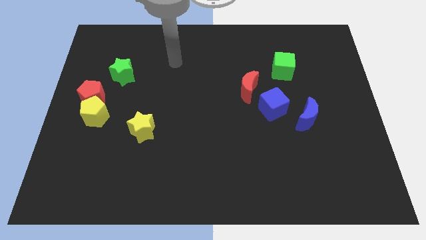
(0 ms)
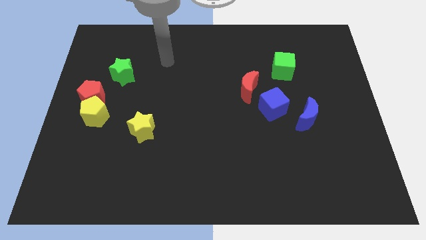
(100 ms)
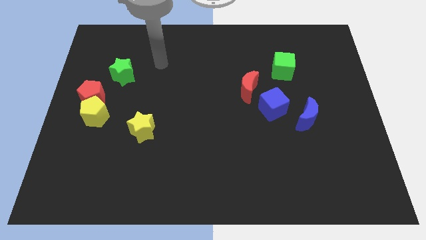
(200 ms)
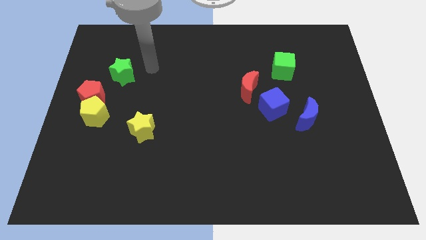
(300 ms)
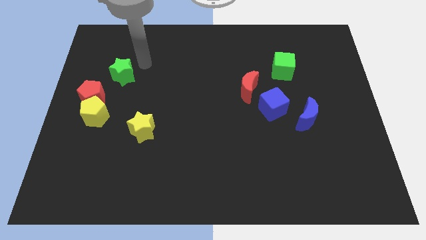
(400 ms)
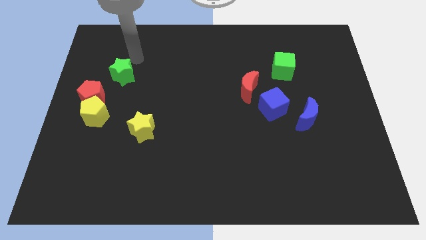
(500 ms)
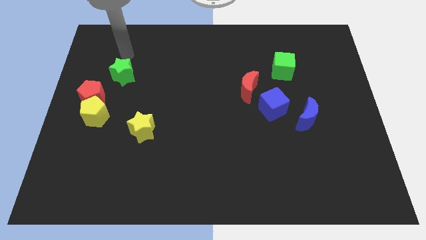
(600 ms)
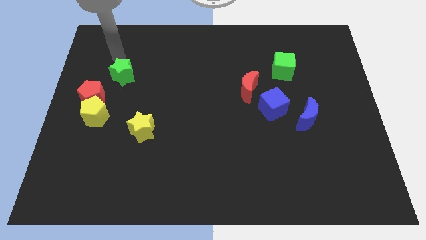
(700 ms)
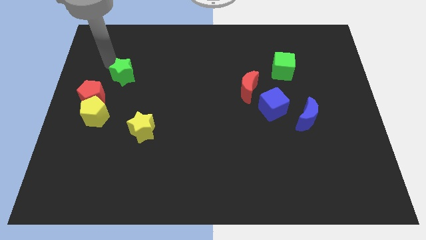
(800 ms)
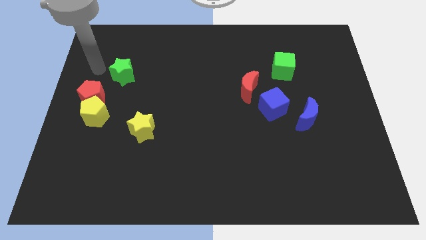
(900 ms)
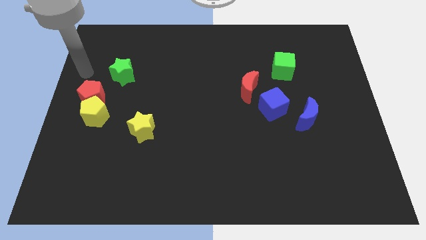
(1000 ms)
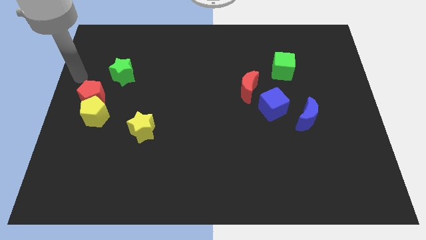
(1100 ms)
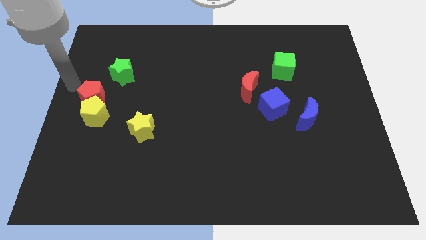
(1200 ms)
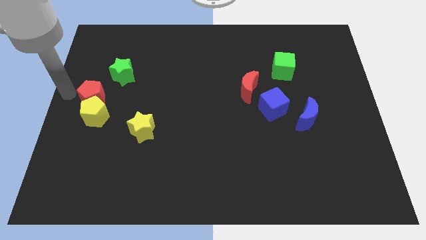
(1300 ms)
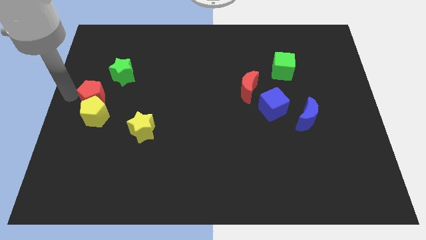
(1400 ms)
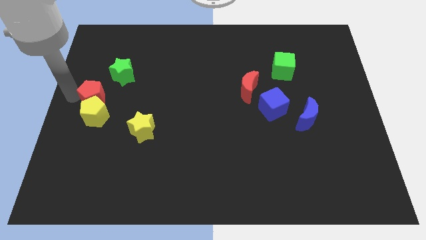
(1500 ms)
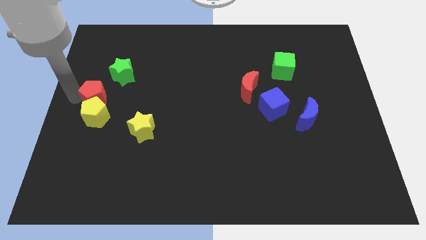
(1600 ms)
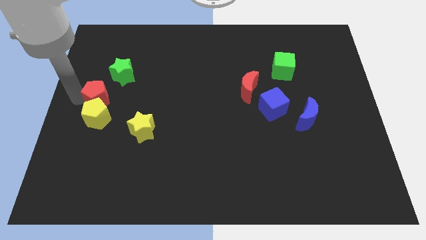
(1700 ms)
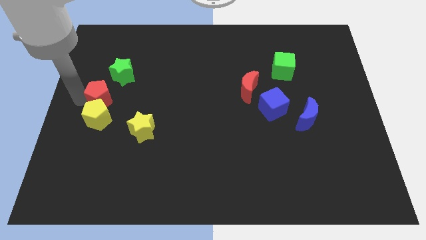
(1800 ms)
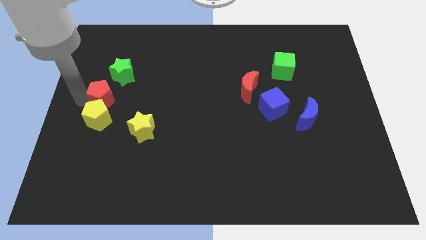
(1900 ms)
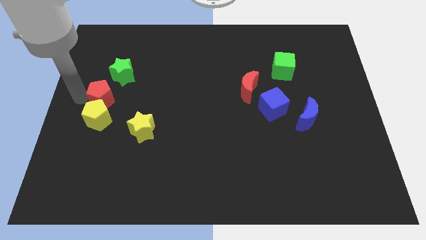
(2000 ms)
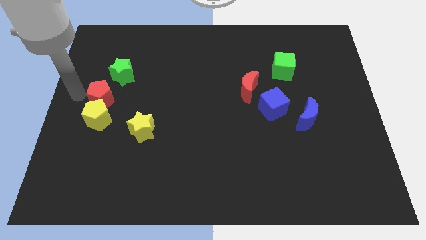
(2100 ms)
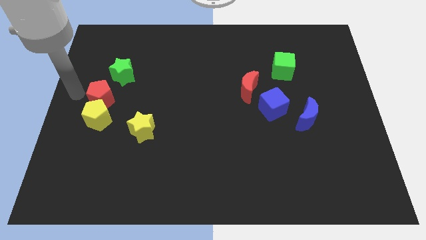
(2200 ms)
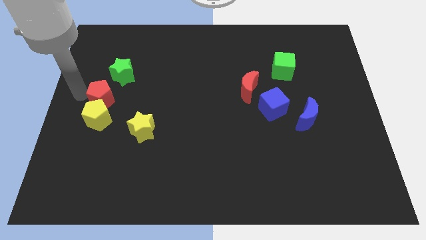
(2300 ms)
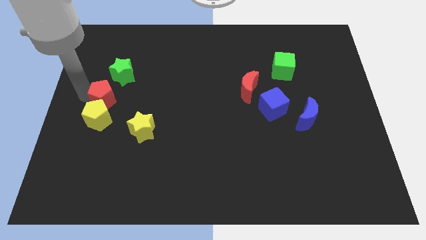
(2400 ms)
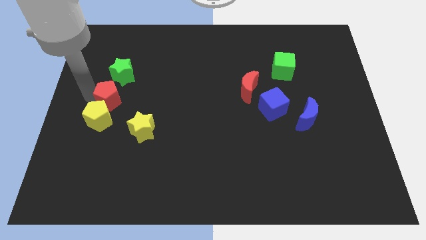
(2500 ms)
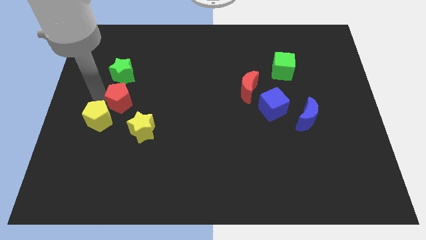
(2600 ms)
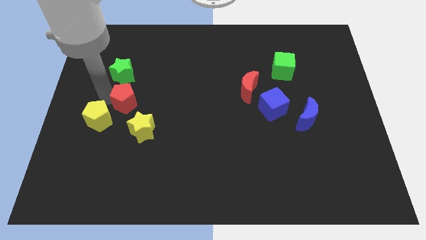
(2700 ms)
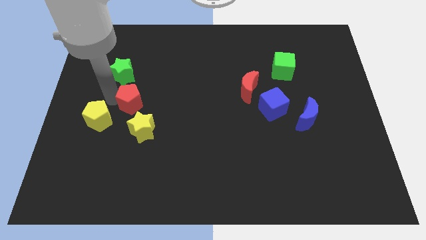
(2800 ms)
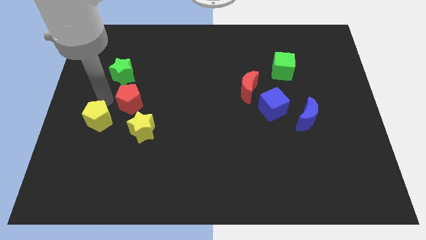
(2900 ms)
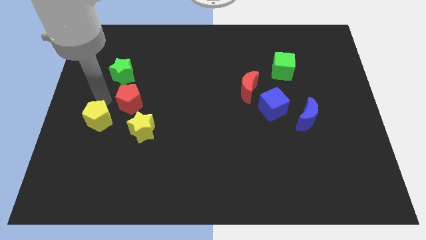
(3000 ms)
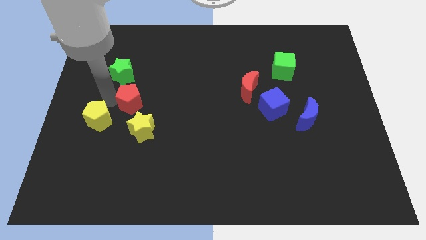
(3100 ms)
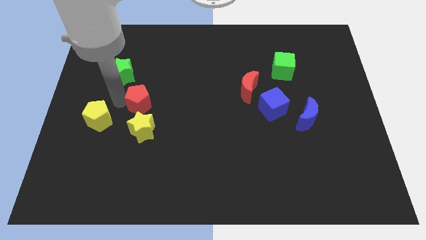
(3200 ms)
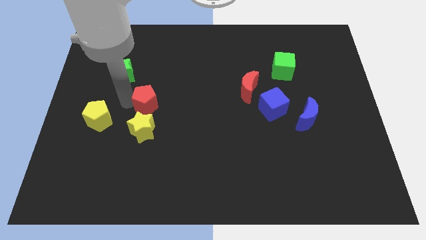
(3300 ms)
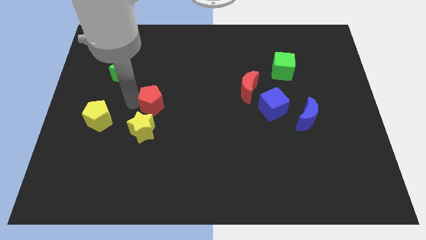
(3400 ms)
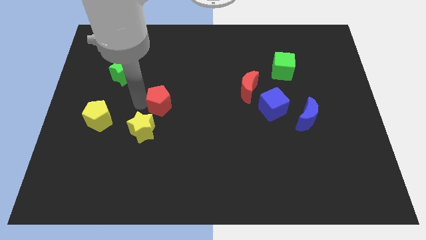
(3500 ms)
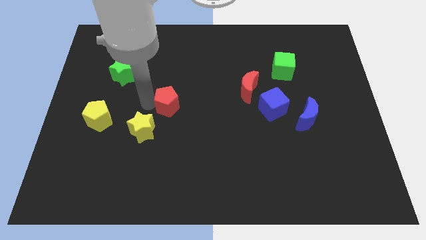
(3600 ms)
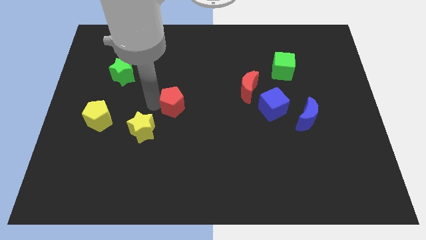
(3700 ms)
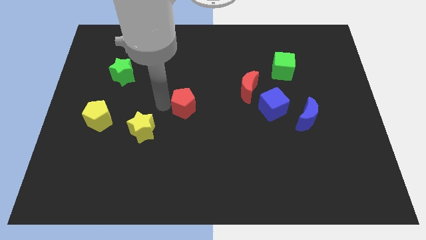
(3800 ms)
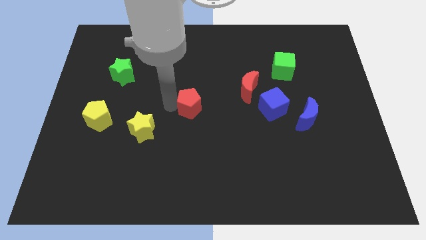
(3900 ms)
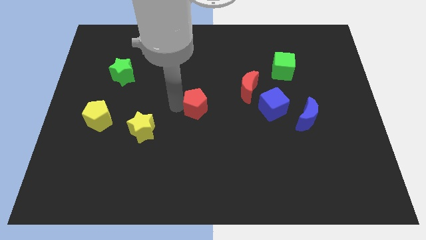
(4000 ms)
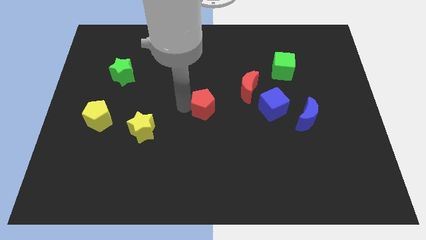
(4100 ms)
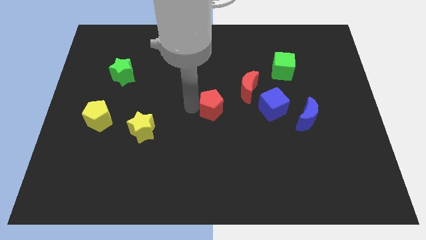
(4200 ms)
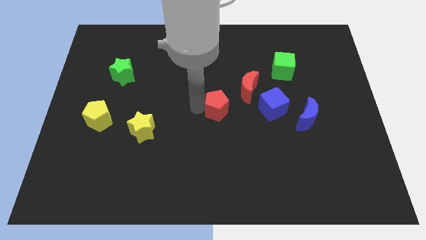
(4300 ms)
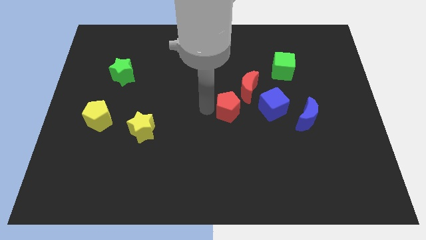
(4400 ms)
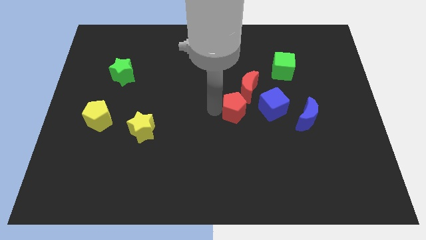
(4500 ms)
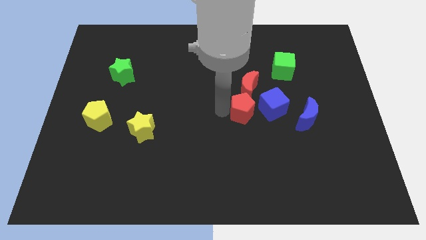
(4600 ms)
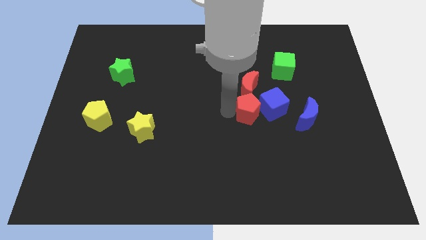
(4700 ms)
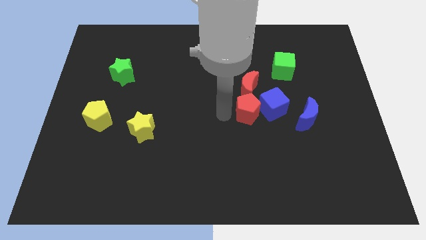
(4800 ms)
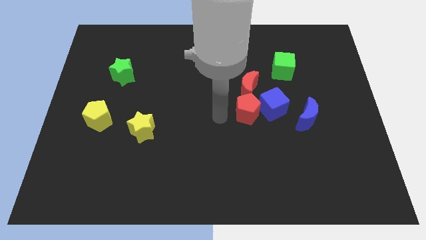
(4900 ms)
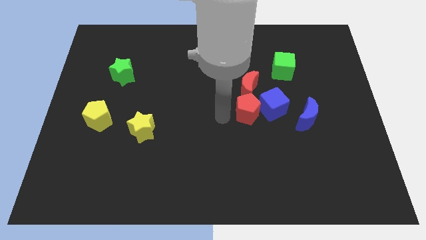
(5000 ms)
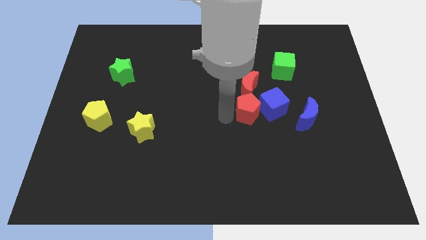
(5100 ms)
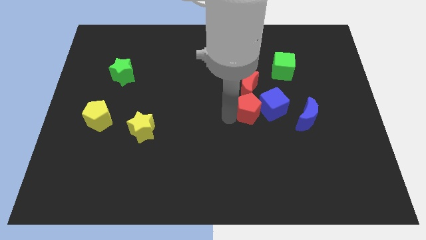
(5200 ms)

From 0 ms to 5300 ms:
slide the red pentagon close to the blue cube

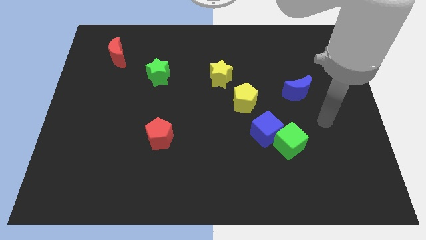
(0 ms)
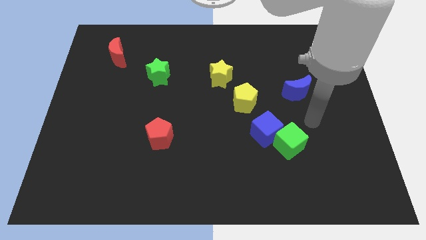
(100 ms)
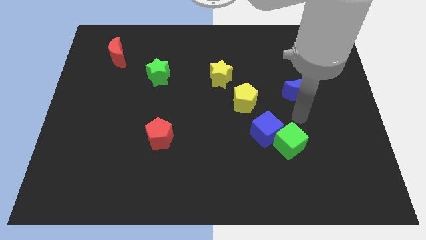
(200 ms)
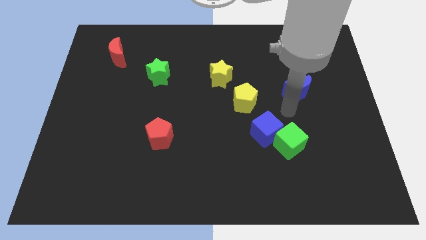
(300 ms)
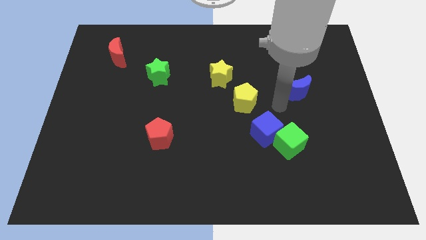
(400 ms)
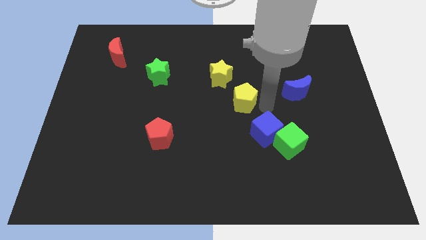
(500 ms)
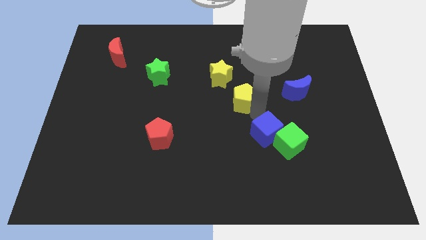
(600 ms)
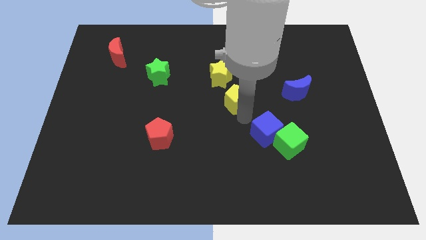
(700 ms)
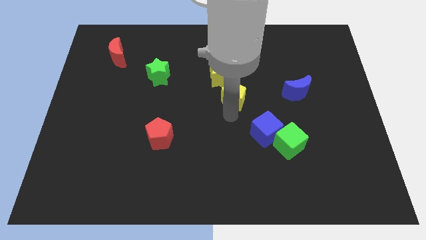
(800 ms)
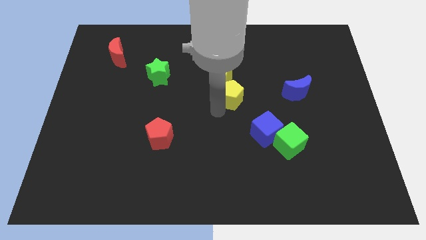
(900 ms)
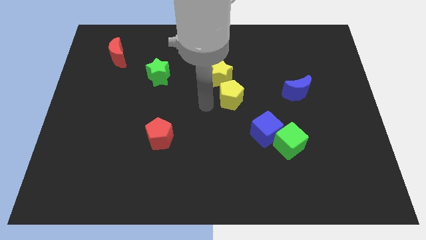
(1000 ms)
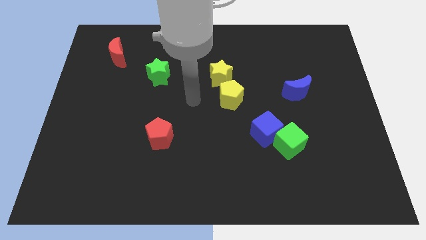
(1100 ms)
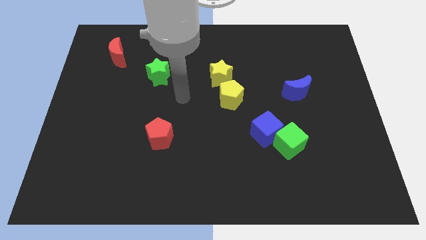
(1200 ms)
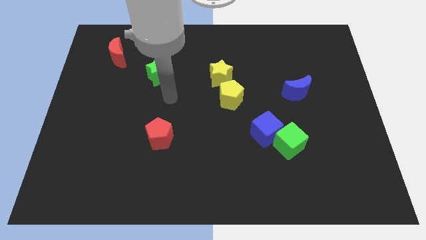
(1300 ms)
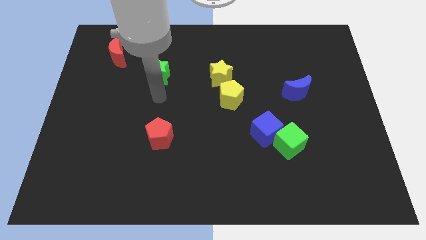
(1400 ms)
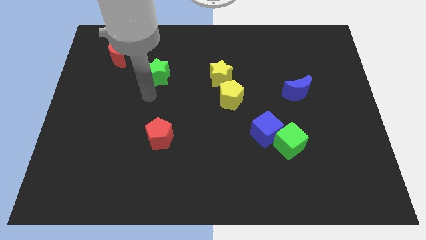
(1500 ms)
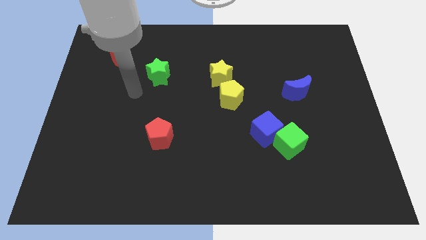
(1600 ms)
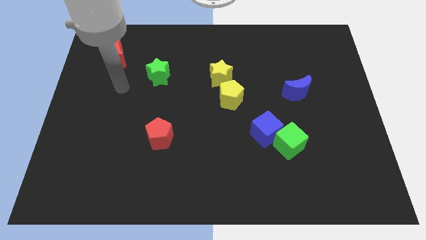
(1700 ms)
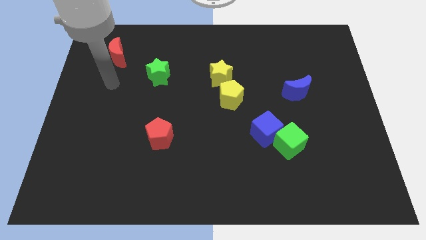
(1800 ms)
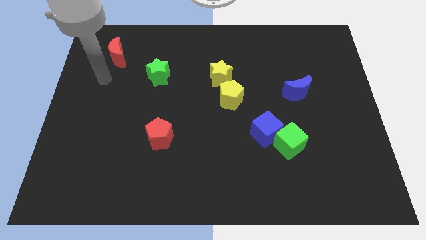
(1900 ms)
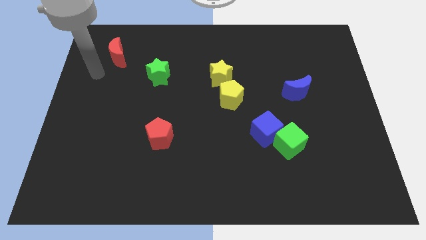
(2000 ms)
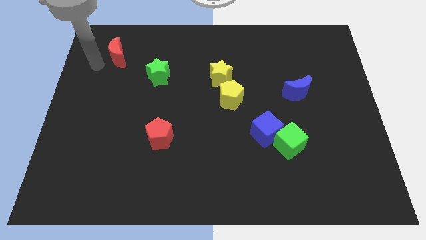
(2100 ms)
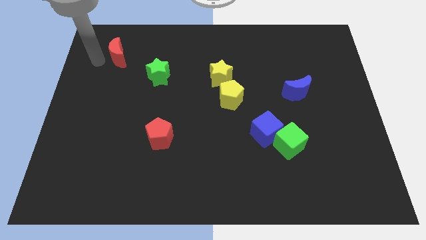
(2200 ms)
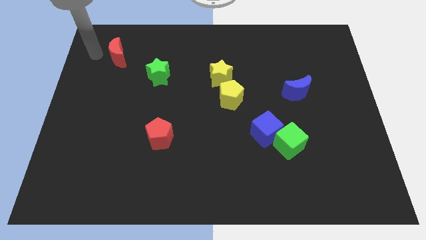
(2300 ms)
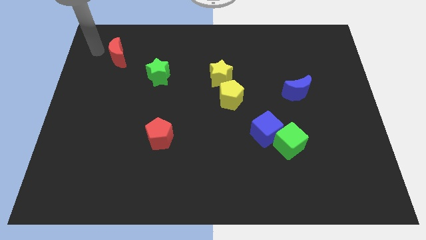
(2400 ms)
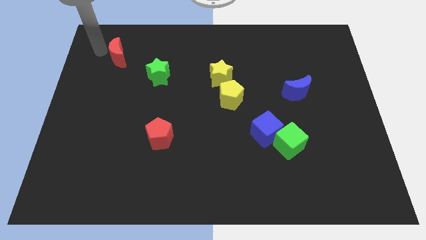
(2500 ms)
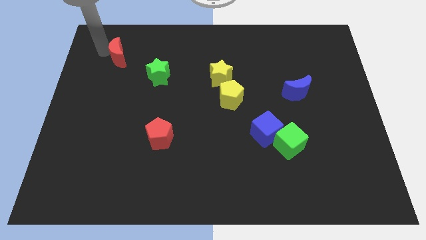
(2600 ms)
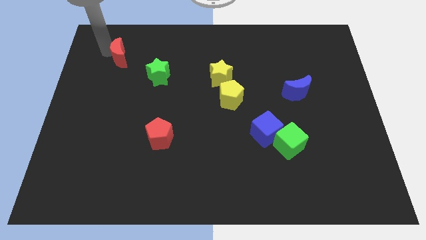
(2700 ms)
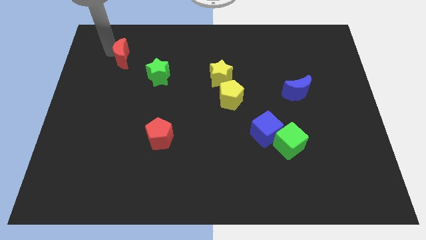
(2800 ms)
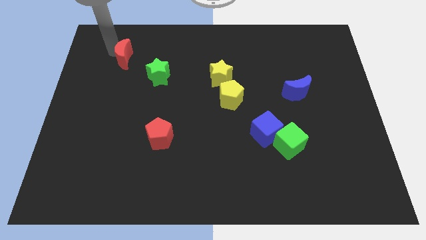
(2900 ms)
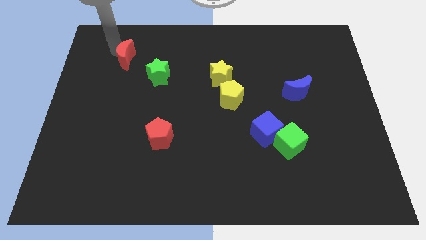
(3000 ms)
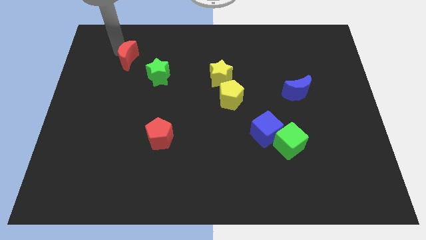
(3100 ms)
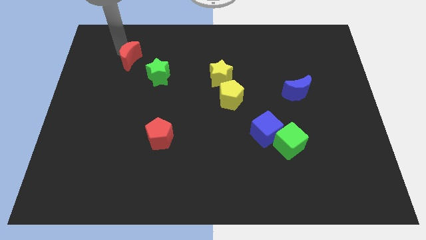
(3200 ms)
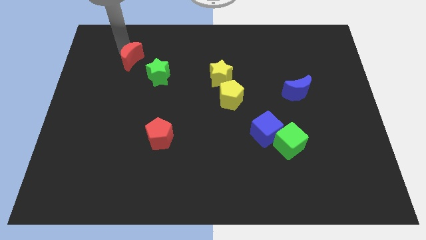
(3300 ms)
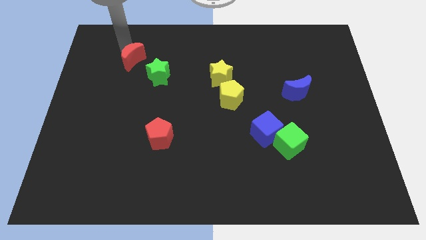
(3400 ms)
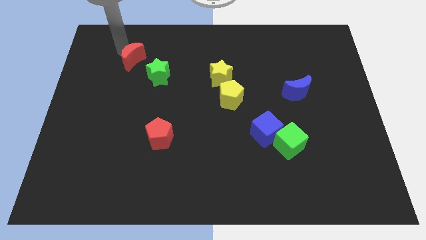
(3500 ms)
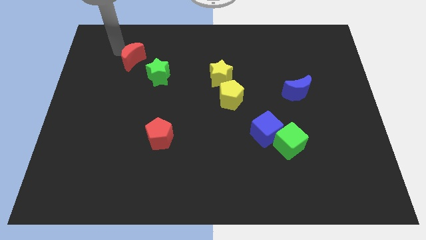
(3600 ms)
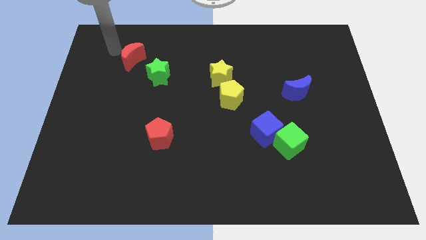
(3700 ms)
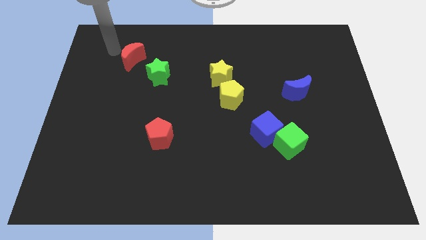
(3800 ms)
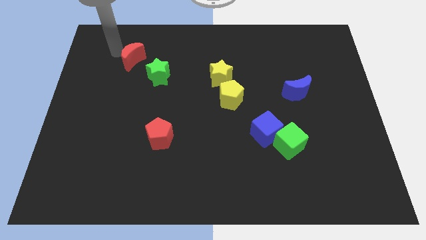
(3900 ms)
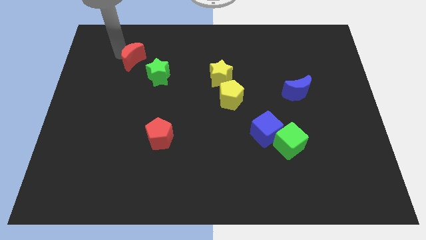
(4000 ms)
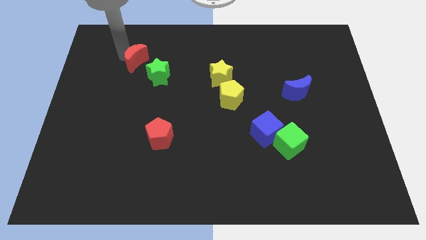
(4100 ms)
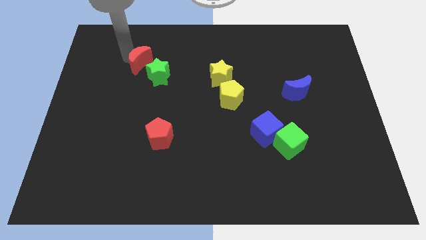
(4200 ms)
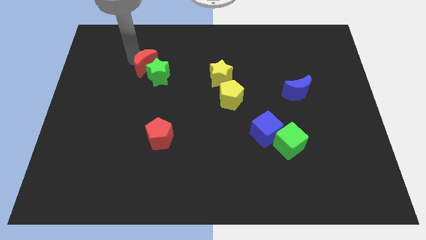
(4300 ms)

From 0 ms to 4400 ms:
slide the red moon next to the green star
